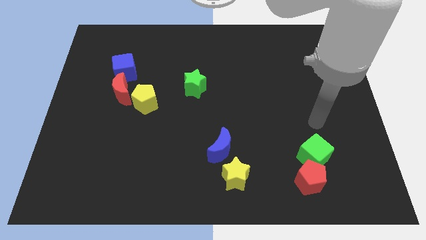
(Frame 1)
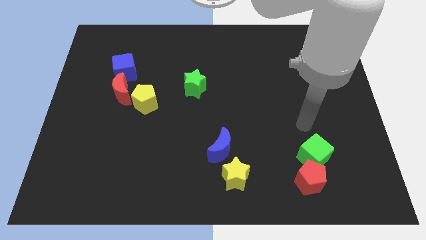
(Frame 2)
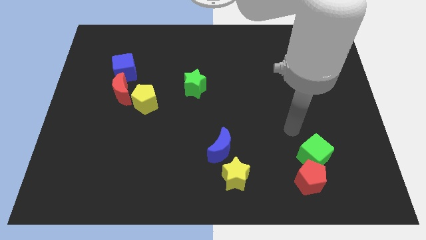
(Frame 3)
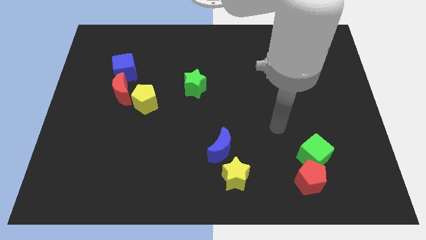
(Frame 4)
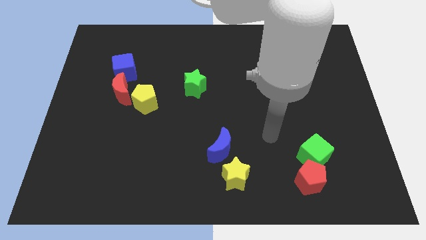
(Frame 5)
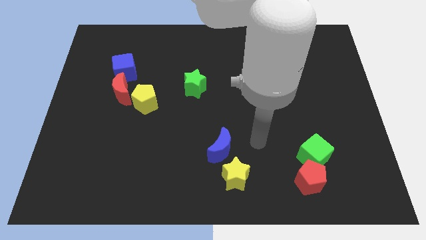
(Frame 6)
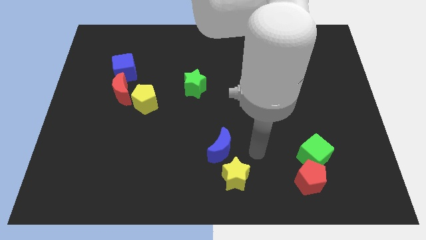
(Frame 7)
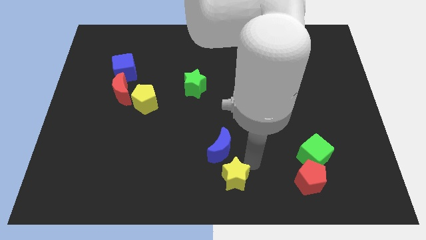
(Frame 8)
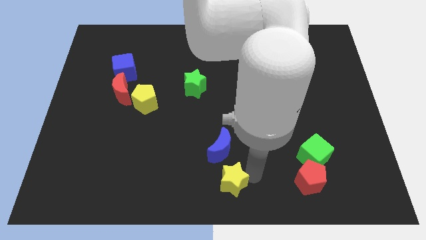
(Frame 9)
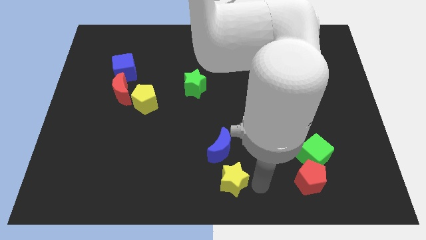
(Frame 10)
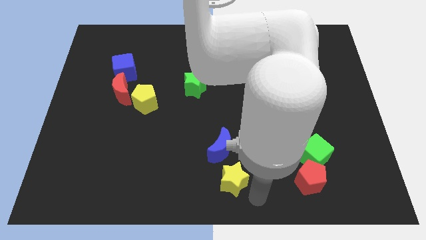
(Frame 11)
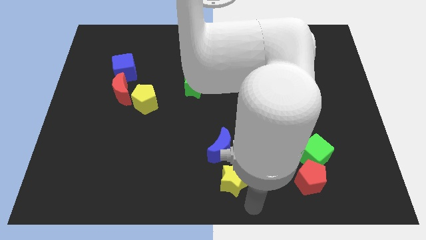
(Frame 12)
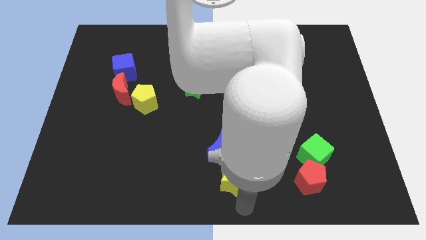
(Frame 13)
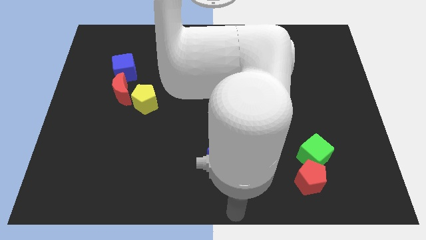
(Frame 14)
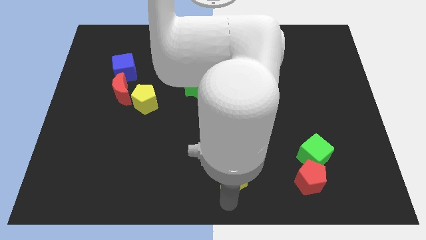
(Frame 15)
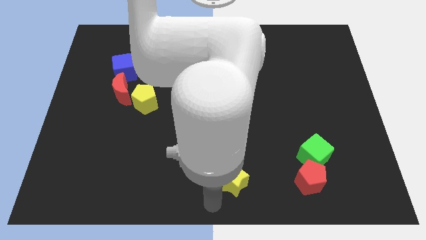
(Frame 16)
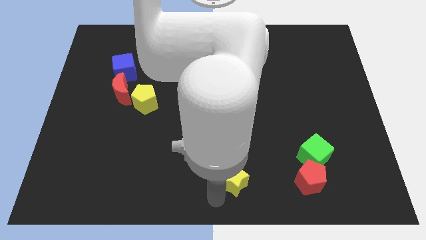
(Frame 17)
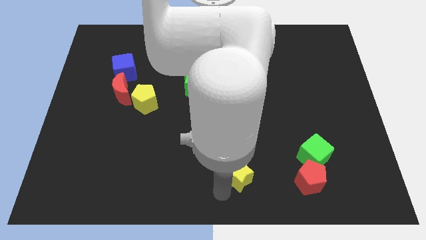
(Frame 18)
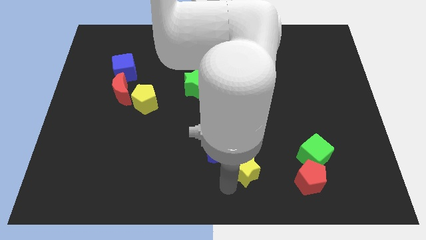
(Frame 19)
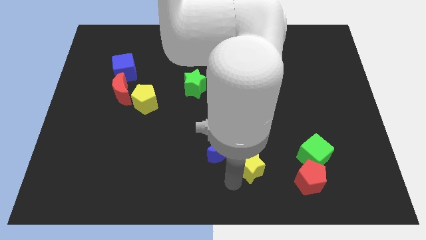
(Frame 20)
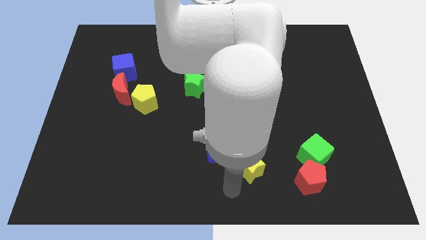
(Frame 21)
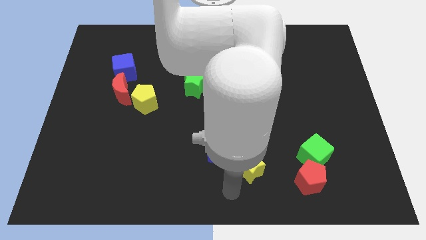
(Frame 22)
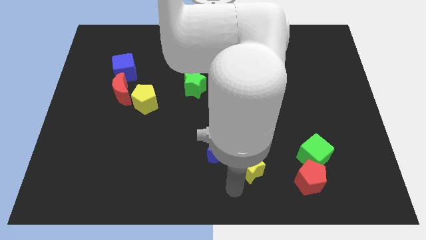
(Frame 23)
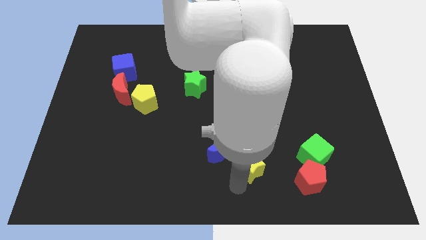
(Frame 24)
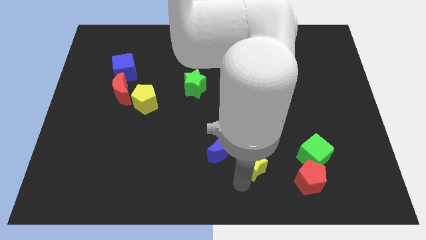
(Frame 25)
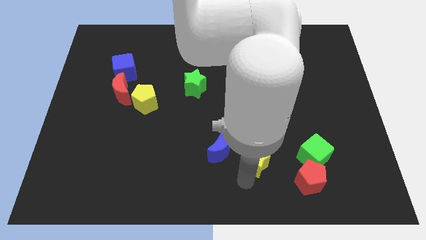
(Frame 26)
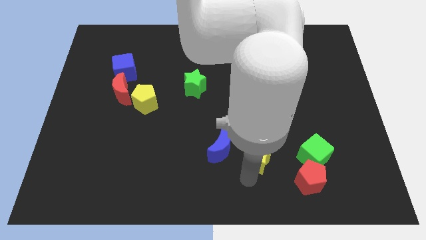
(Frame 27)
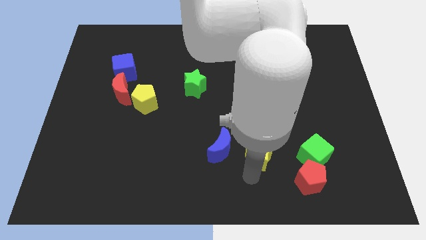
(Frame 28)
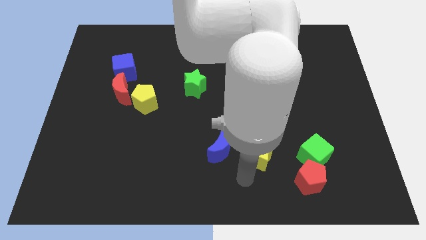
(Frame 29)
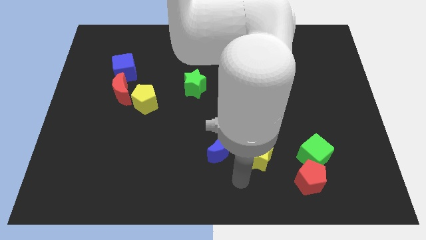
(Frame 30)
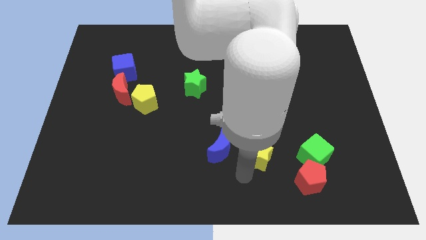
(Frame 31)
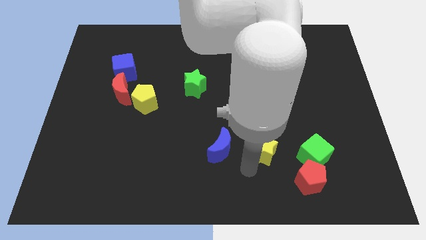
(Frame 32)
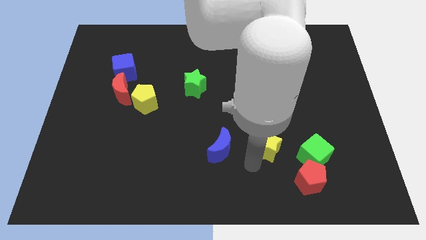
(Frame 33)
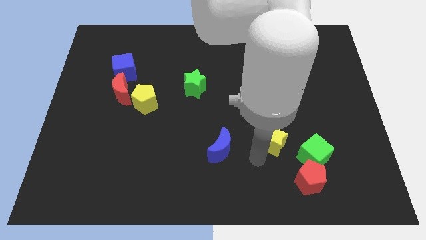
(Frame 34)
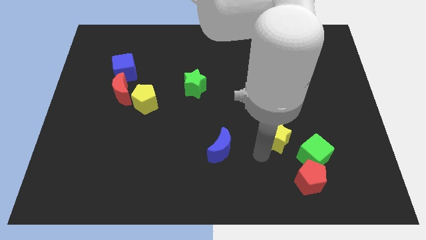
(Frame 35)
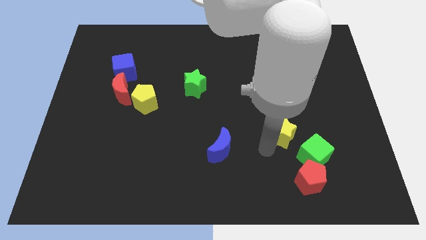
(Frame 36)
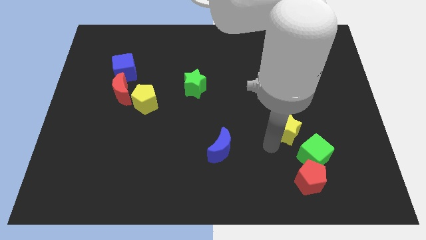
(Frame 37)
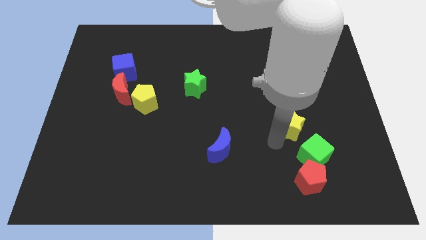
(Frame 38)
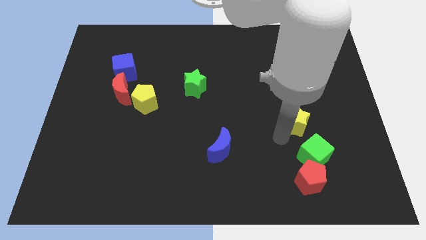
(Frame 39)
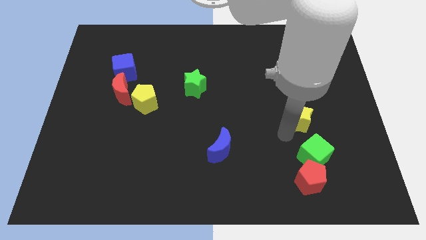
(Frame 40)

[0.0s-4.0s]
move the yellow star upwards and then to the right

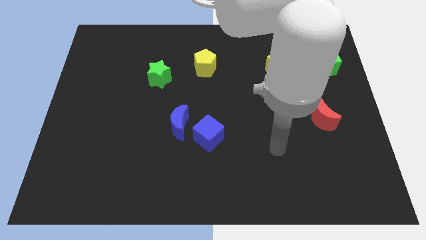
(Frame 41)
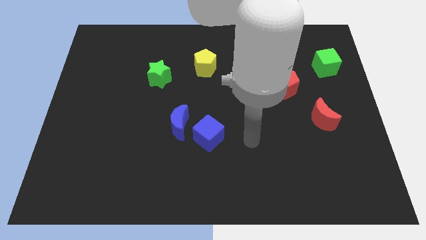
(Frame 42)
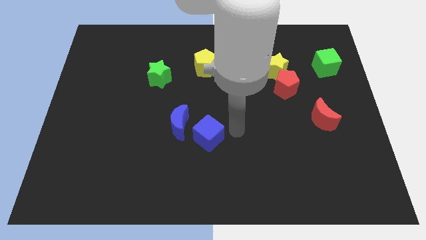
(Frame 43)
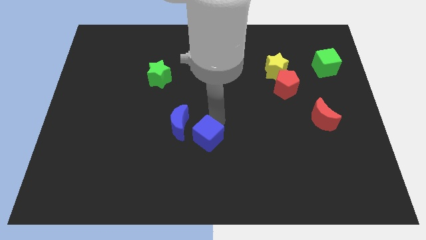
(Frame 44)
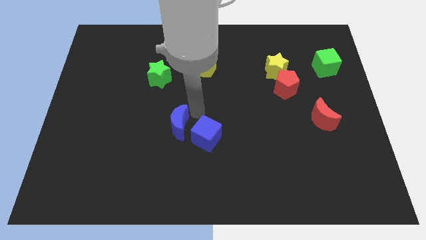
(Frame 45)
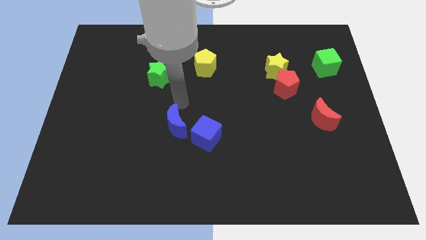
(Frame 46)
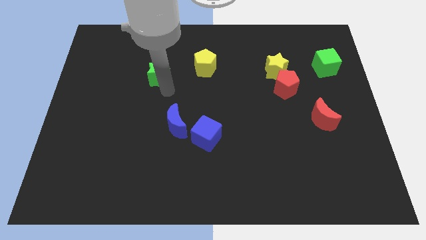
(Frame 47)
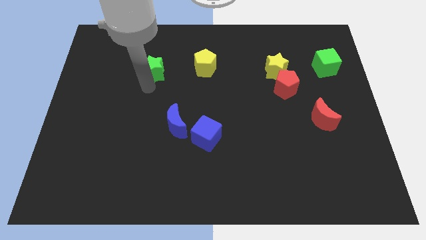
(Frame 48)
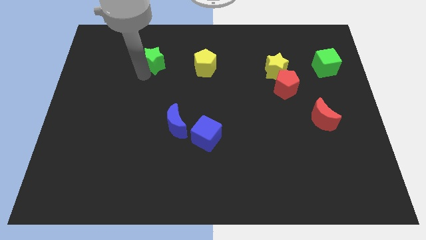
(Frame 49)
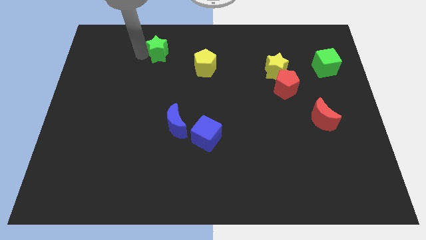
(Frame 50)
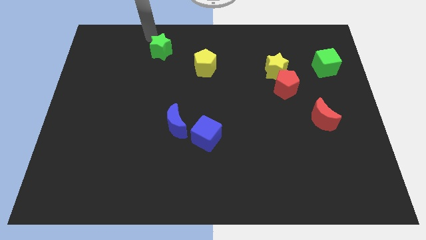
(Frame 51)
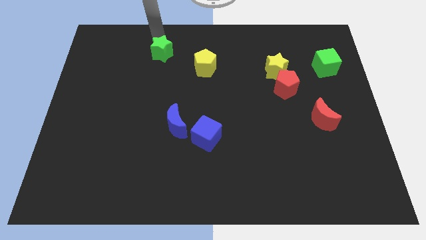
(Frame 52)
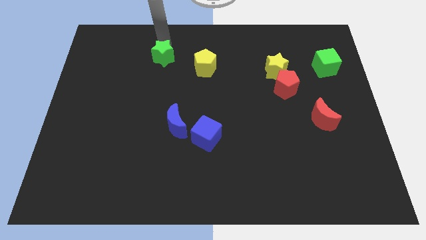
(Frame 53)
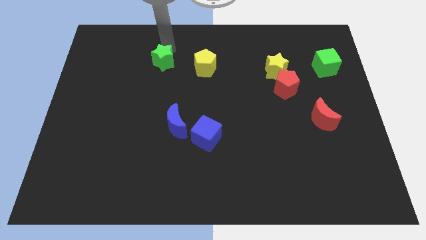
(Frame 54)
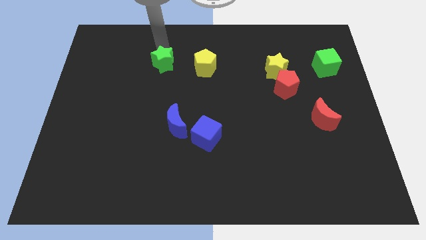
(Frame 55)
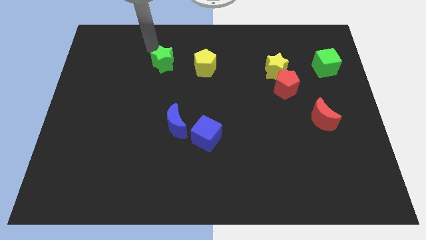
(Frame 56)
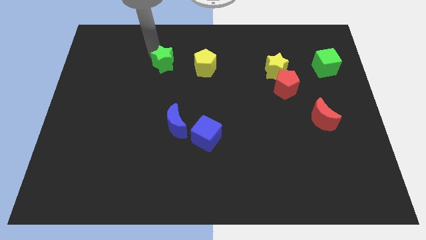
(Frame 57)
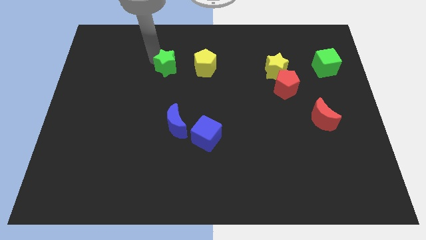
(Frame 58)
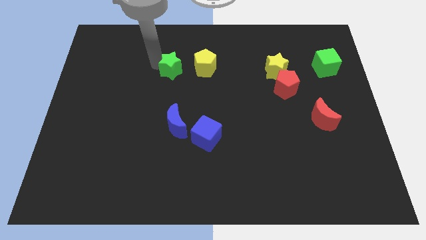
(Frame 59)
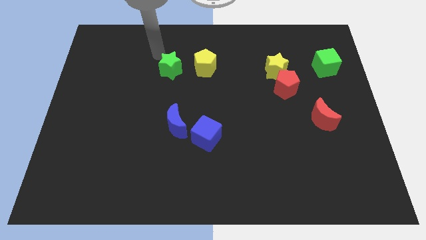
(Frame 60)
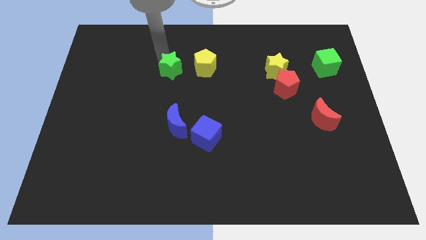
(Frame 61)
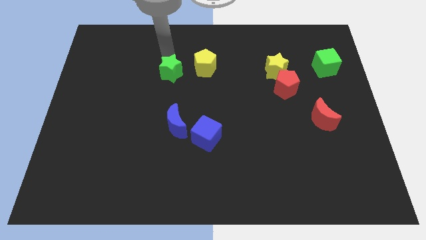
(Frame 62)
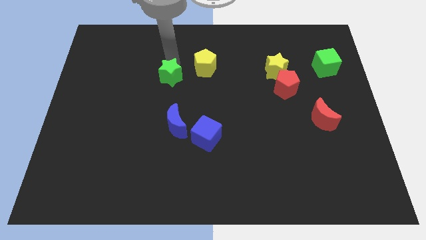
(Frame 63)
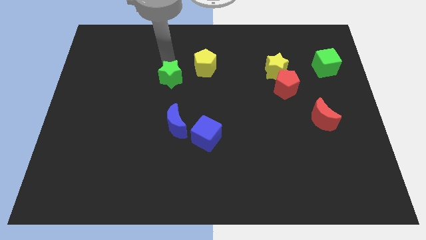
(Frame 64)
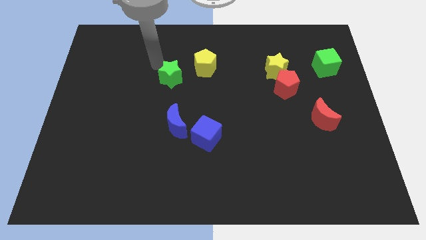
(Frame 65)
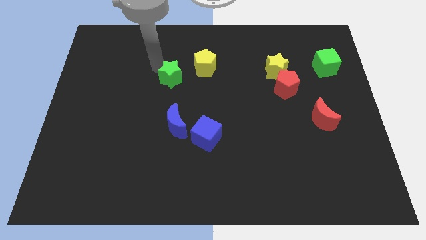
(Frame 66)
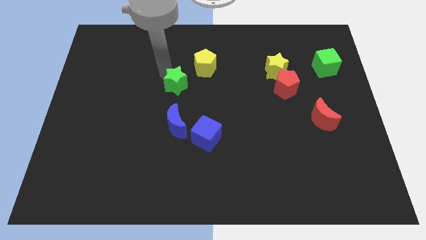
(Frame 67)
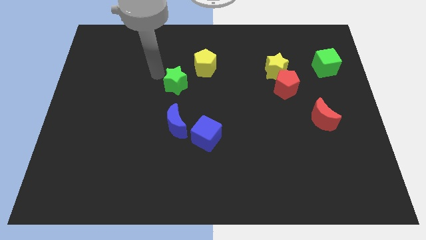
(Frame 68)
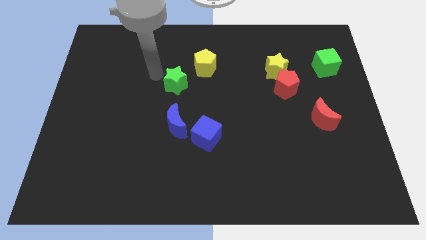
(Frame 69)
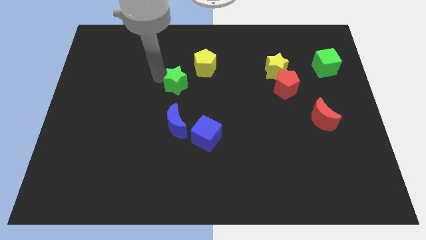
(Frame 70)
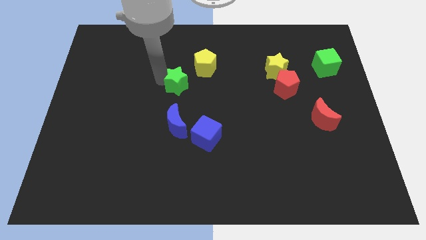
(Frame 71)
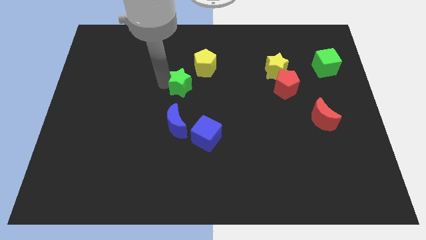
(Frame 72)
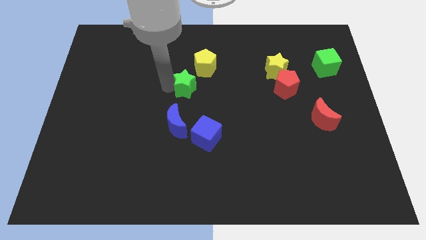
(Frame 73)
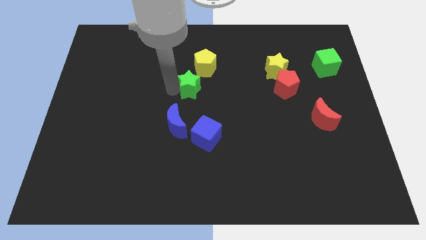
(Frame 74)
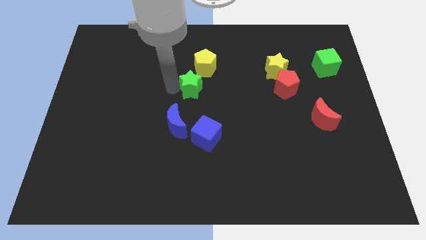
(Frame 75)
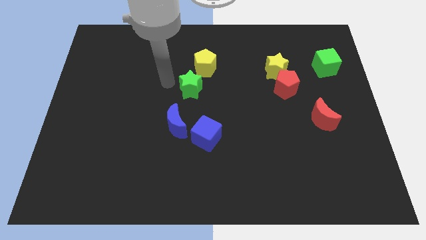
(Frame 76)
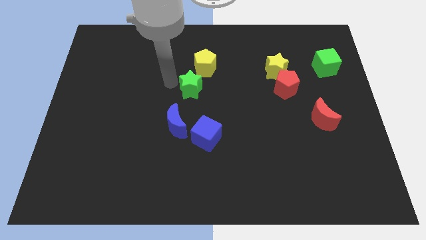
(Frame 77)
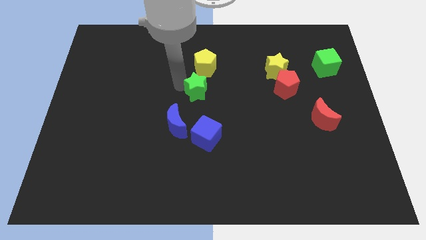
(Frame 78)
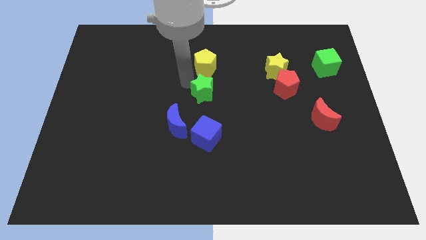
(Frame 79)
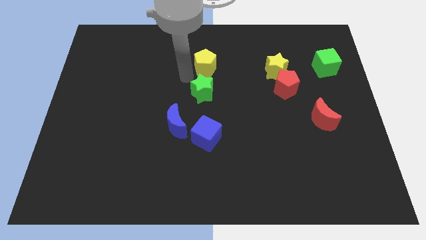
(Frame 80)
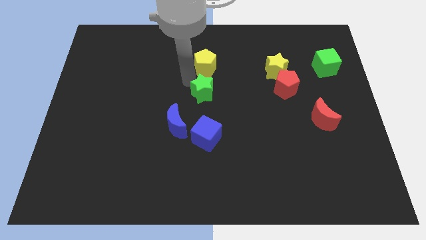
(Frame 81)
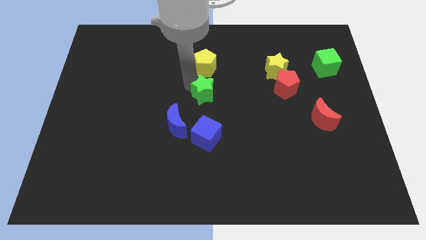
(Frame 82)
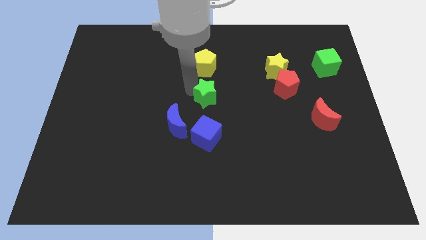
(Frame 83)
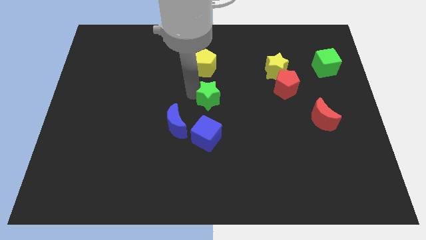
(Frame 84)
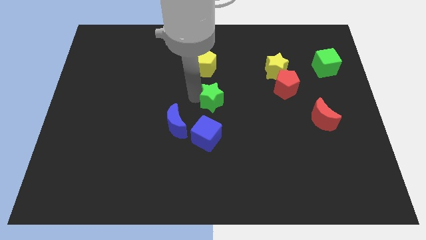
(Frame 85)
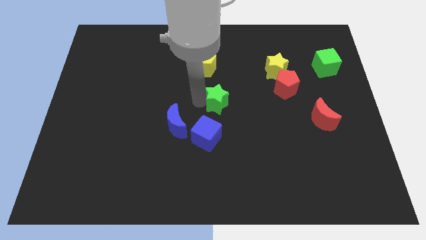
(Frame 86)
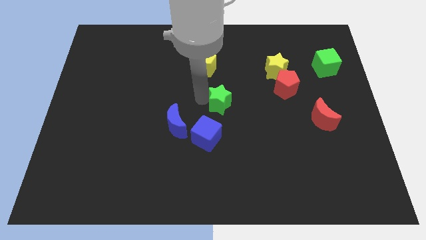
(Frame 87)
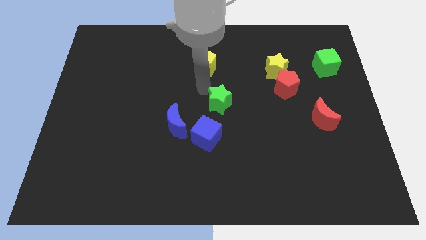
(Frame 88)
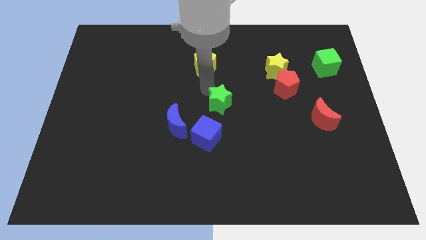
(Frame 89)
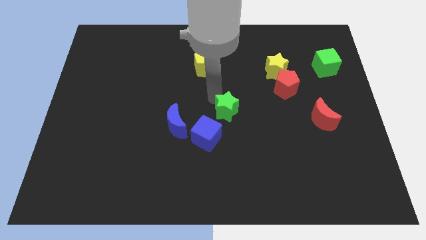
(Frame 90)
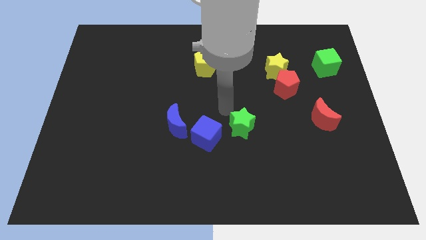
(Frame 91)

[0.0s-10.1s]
push the green star diagonally down and to the right
